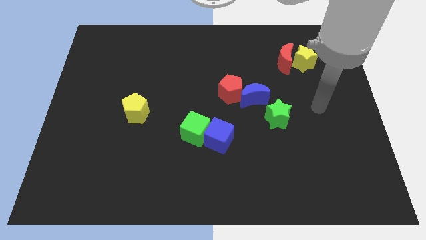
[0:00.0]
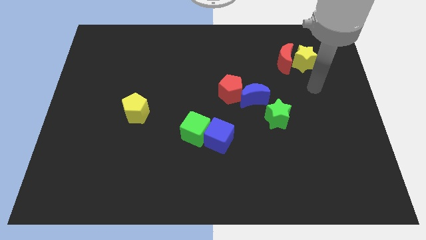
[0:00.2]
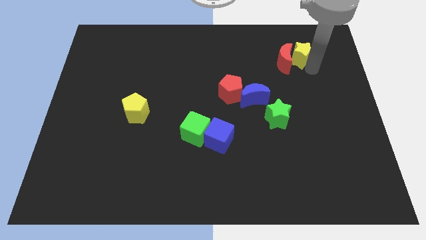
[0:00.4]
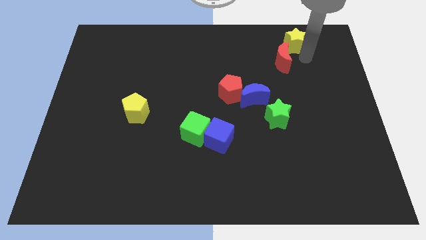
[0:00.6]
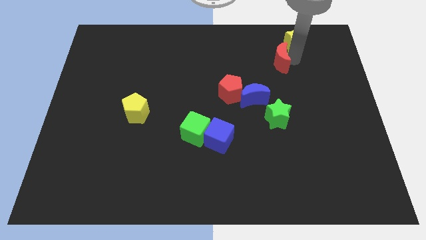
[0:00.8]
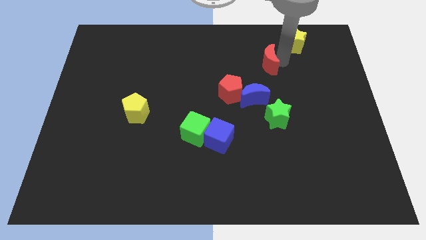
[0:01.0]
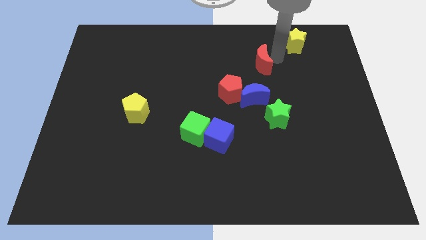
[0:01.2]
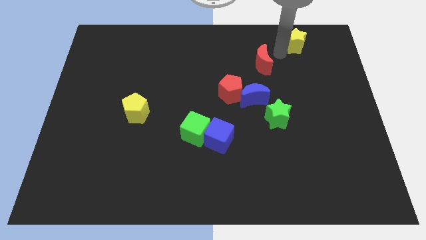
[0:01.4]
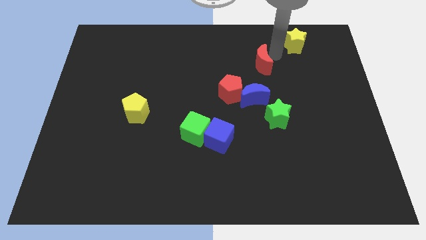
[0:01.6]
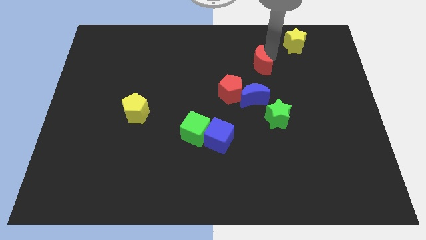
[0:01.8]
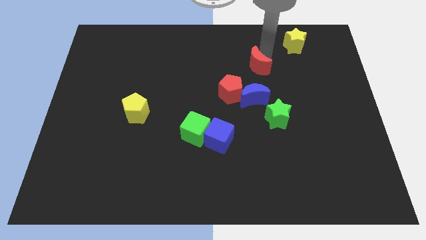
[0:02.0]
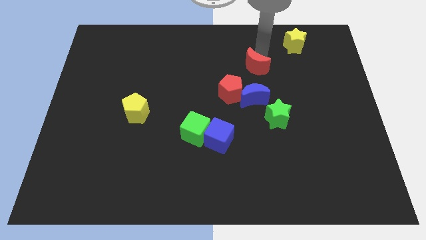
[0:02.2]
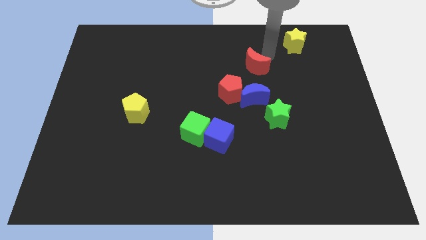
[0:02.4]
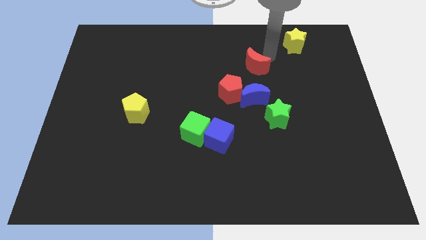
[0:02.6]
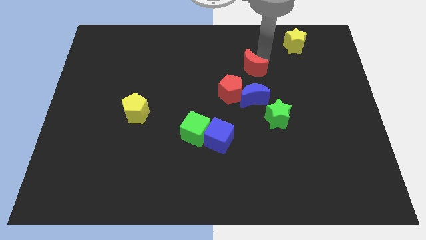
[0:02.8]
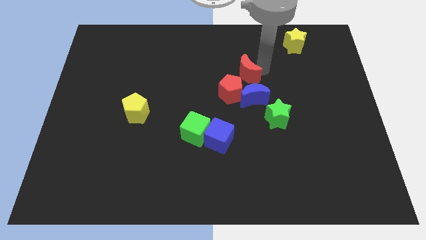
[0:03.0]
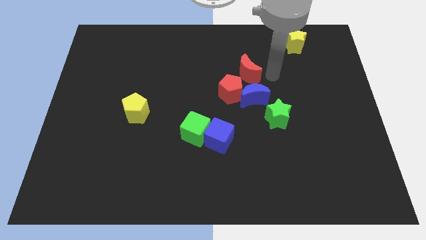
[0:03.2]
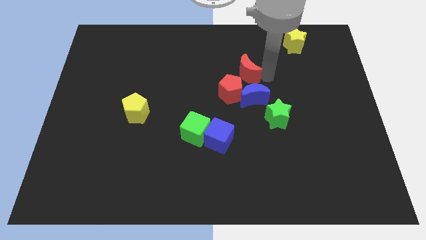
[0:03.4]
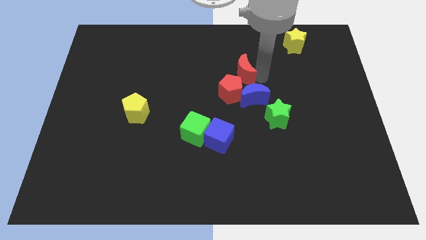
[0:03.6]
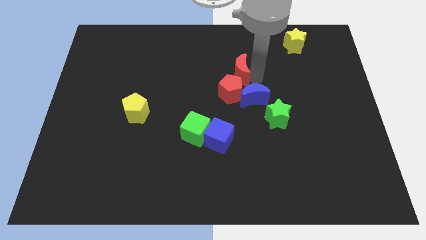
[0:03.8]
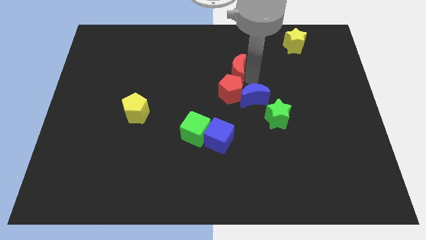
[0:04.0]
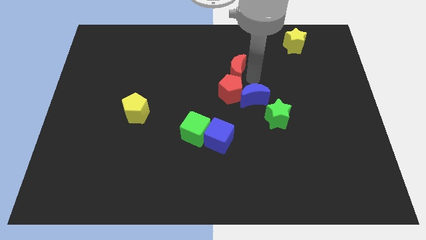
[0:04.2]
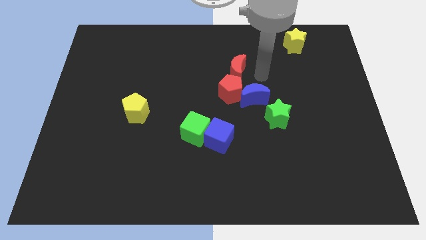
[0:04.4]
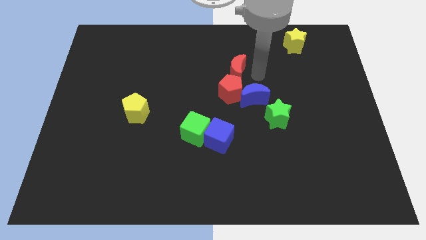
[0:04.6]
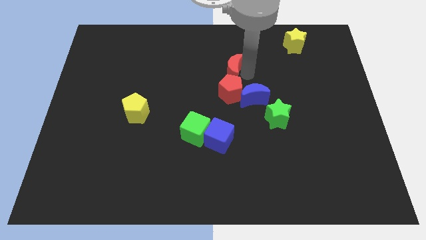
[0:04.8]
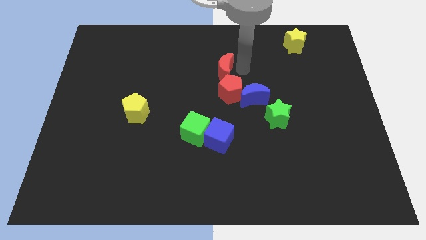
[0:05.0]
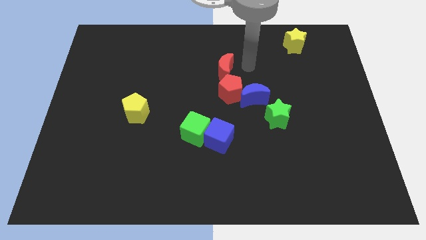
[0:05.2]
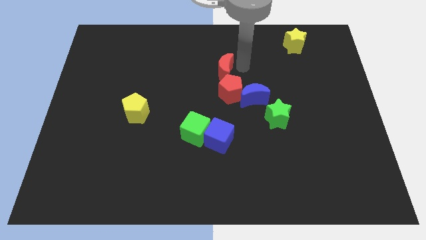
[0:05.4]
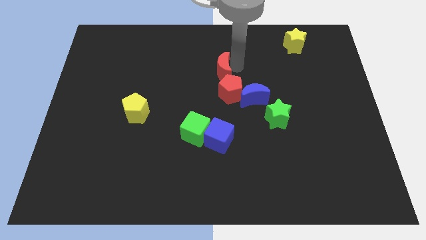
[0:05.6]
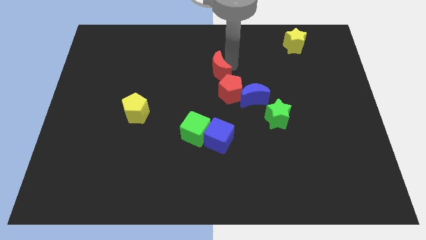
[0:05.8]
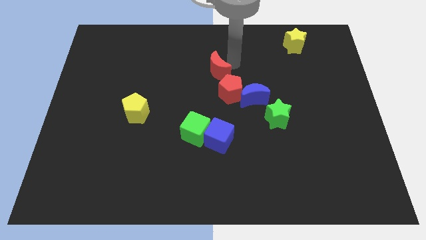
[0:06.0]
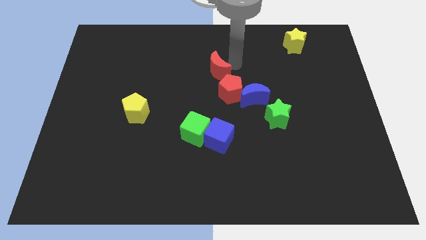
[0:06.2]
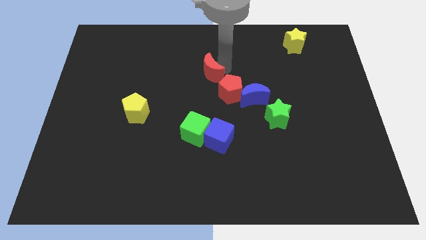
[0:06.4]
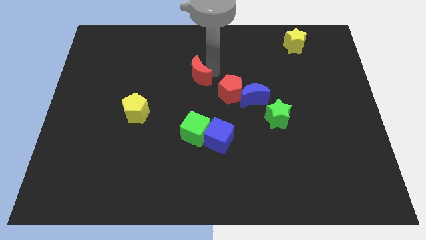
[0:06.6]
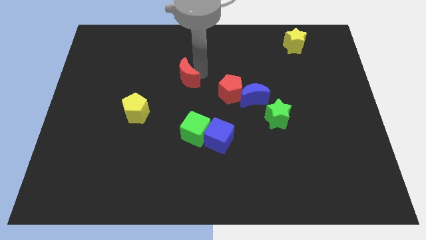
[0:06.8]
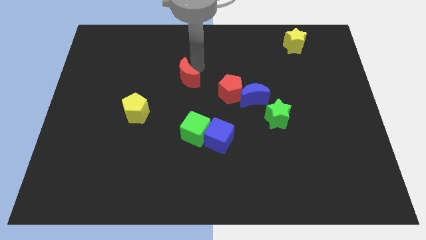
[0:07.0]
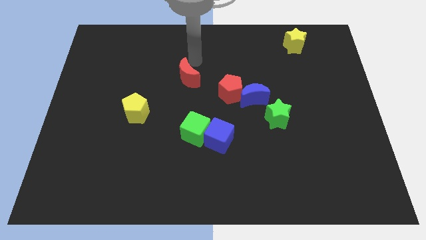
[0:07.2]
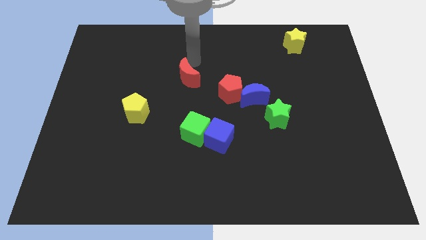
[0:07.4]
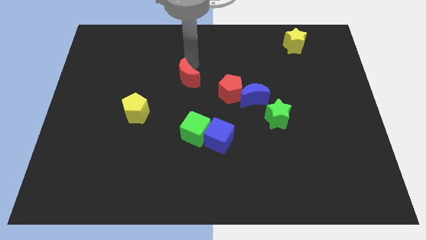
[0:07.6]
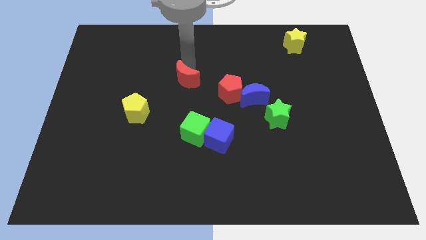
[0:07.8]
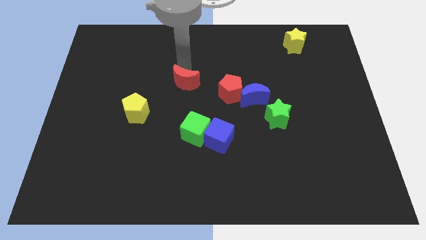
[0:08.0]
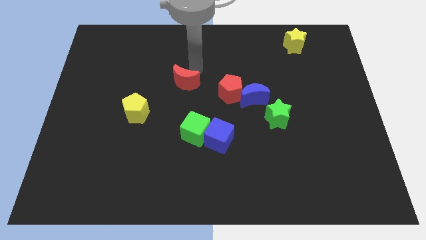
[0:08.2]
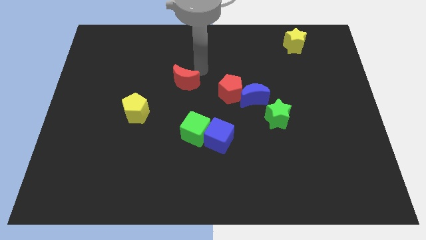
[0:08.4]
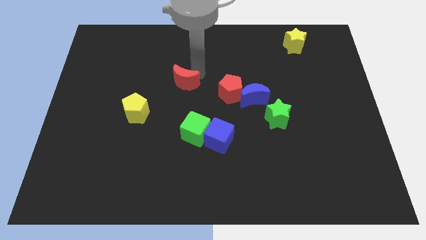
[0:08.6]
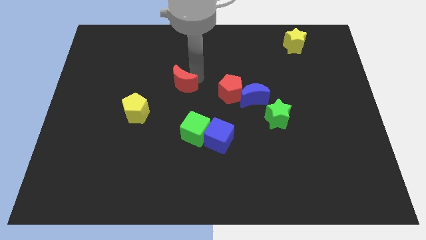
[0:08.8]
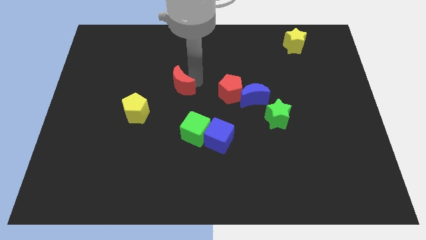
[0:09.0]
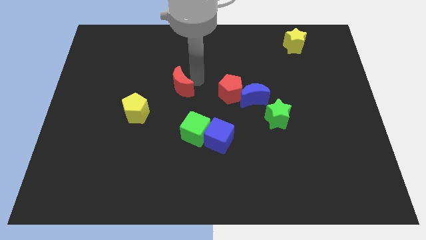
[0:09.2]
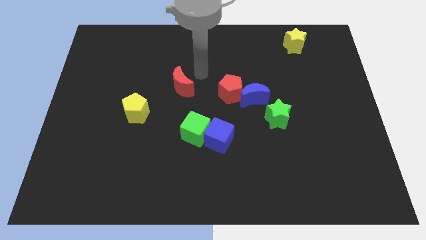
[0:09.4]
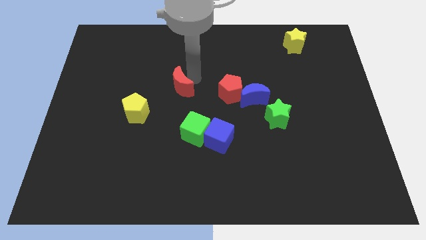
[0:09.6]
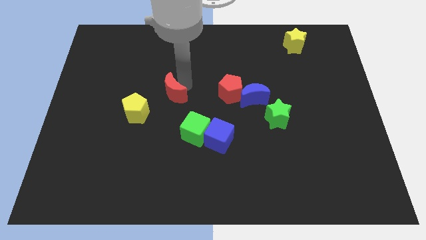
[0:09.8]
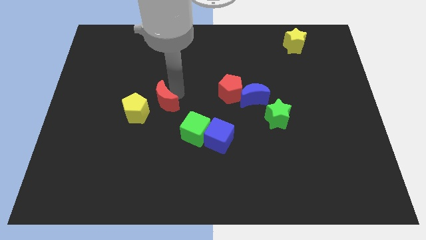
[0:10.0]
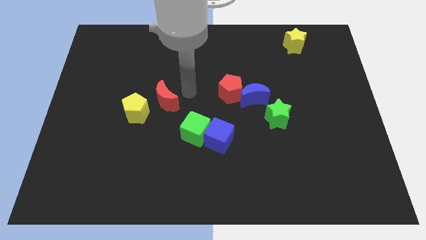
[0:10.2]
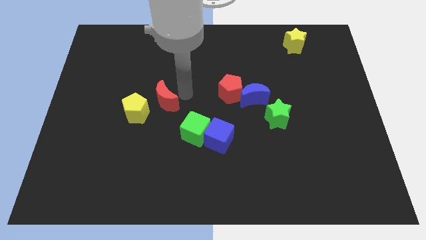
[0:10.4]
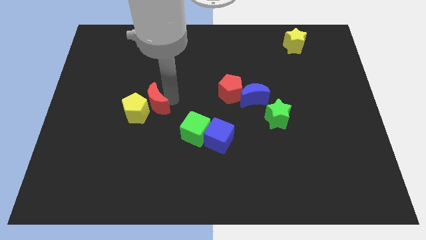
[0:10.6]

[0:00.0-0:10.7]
push the red moon towards the yellow pentagon

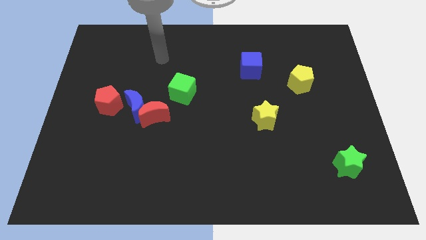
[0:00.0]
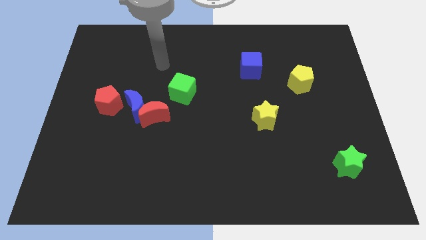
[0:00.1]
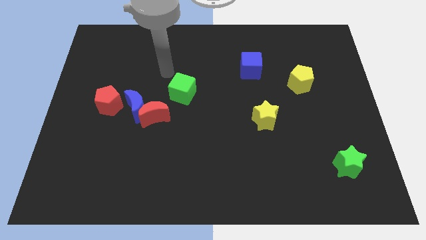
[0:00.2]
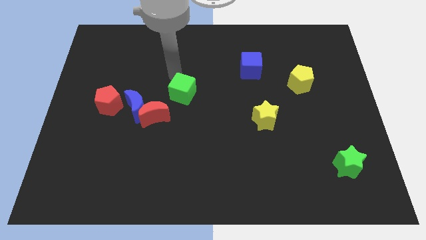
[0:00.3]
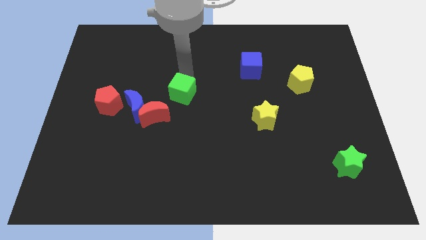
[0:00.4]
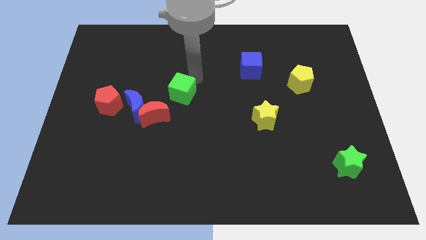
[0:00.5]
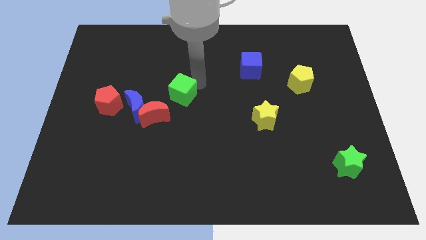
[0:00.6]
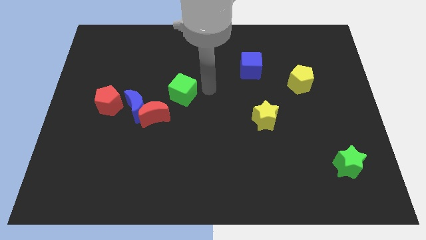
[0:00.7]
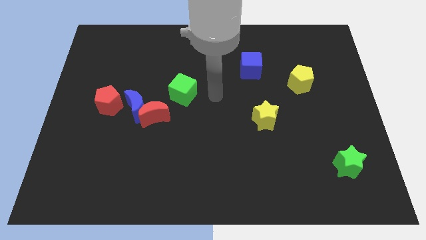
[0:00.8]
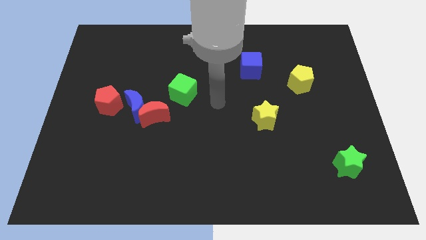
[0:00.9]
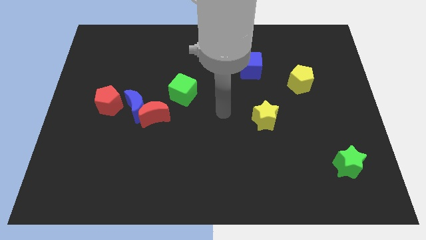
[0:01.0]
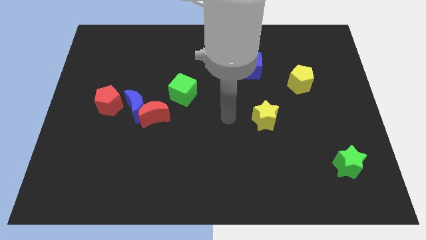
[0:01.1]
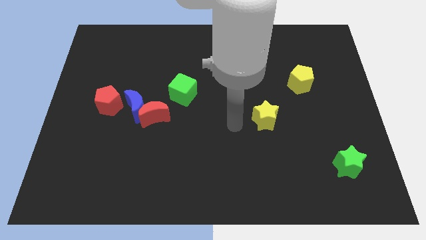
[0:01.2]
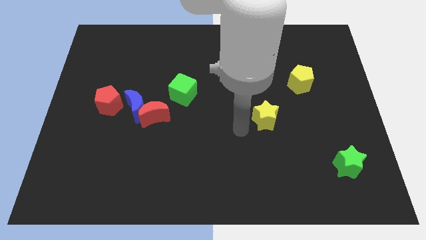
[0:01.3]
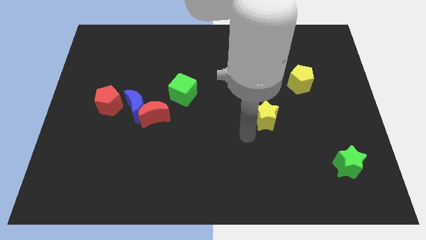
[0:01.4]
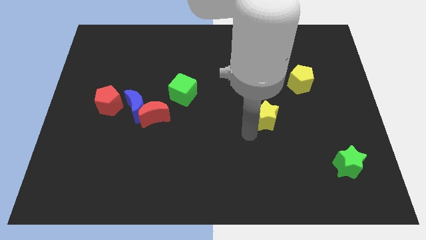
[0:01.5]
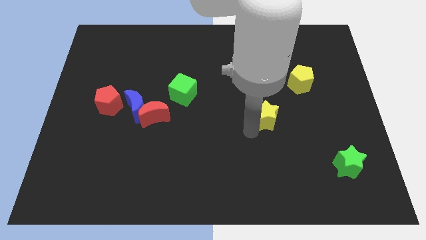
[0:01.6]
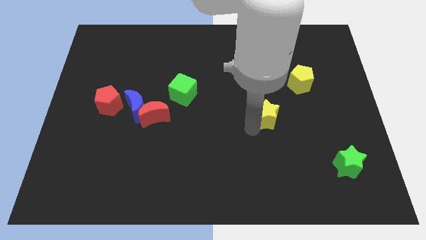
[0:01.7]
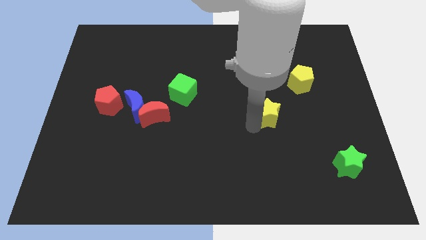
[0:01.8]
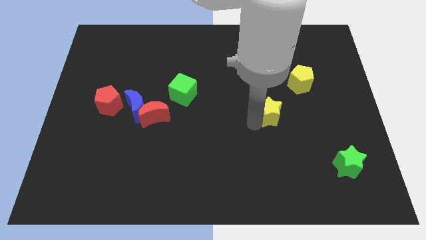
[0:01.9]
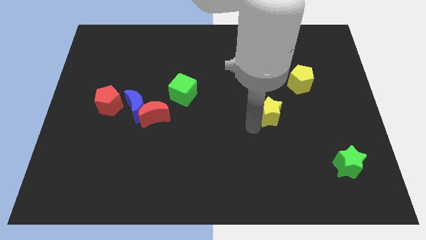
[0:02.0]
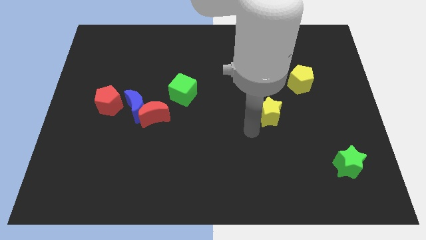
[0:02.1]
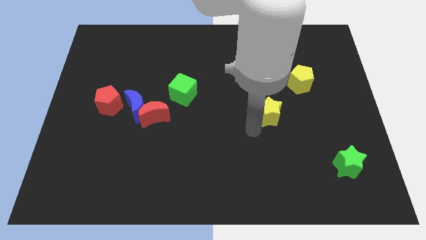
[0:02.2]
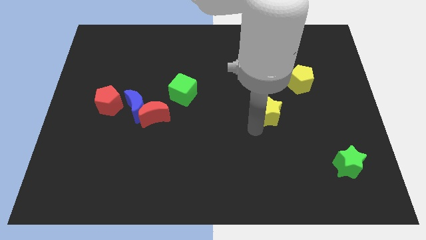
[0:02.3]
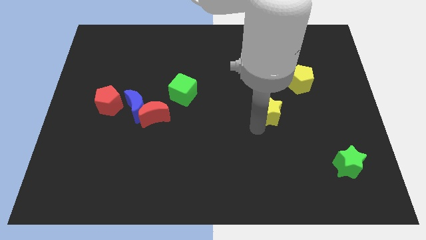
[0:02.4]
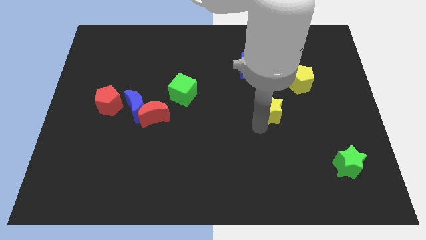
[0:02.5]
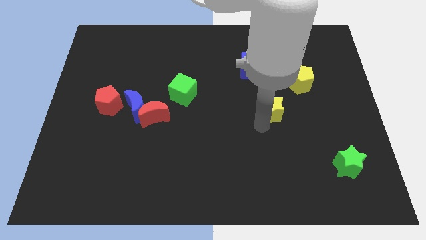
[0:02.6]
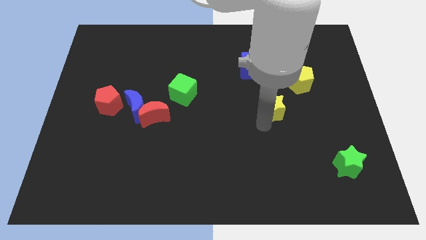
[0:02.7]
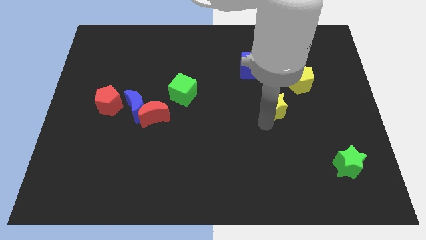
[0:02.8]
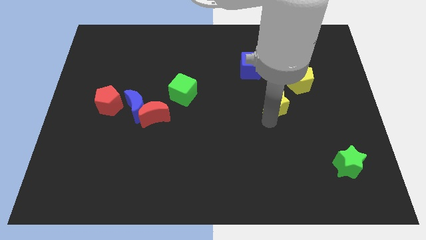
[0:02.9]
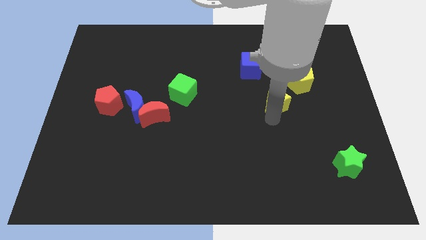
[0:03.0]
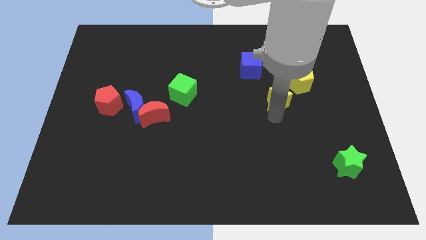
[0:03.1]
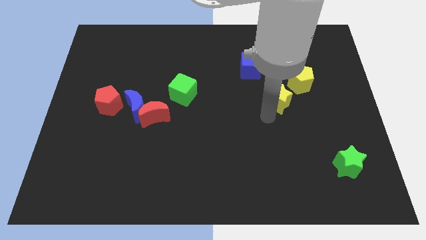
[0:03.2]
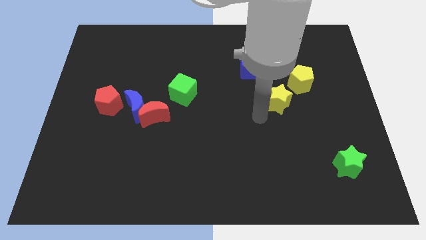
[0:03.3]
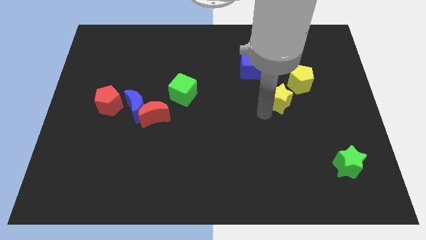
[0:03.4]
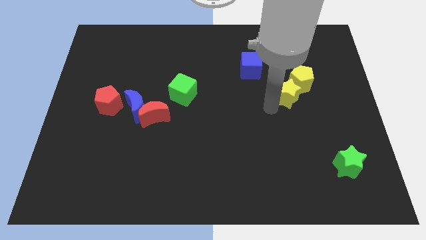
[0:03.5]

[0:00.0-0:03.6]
move the yellow star to the yellow pentagon
